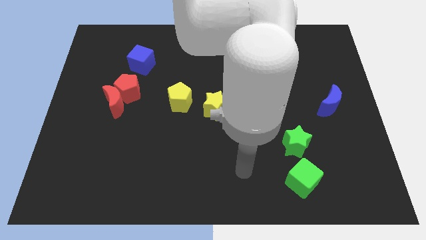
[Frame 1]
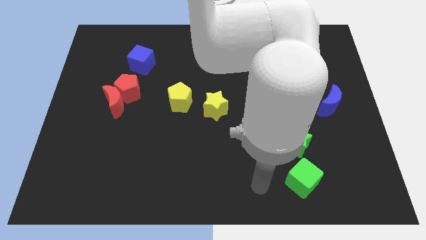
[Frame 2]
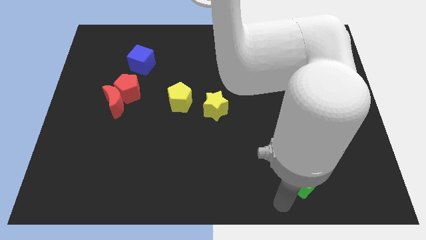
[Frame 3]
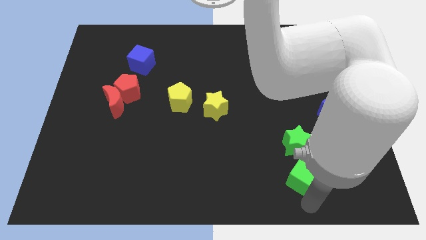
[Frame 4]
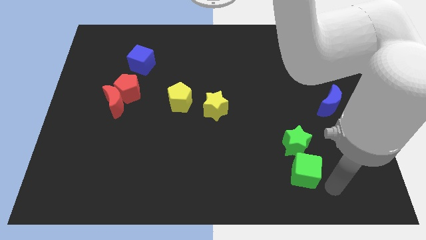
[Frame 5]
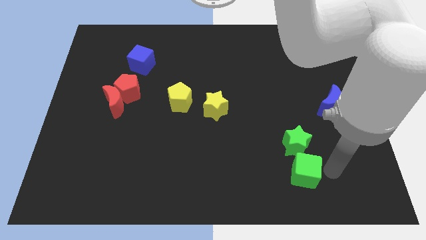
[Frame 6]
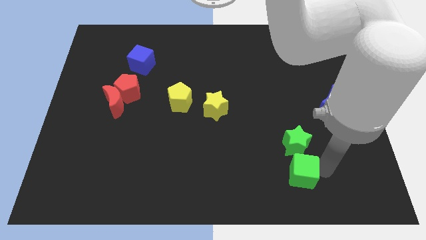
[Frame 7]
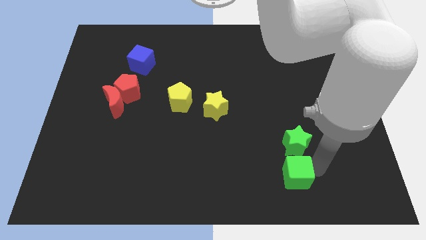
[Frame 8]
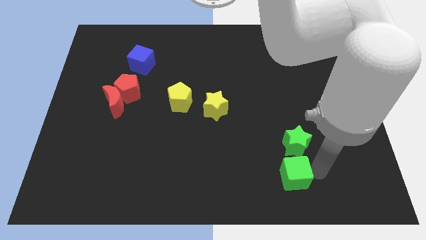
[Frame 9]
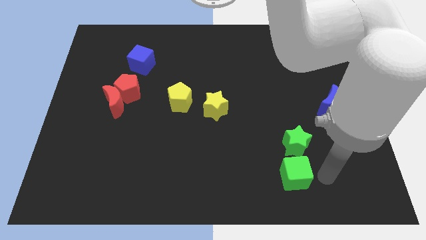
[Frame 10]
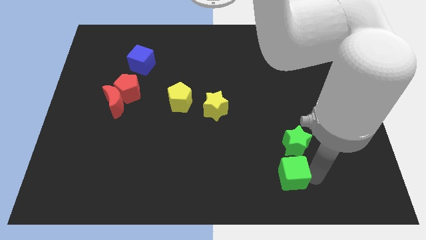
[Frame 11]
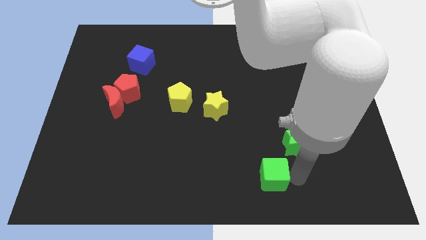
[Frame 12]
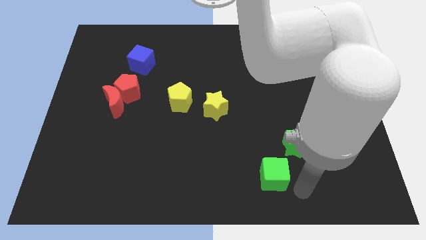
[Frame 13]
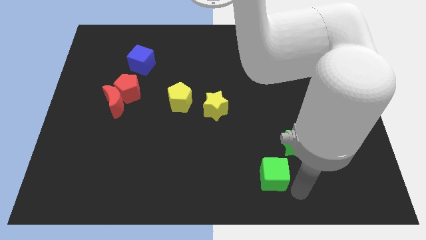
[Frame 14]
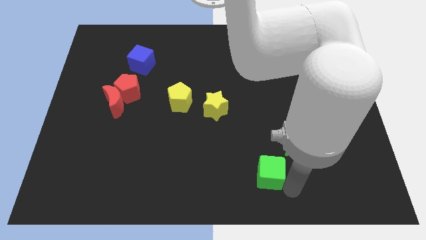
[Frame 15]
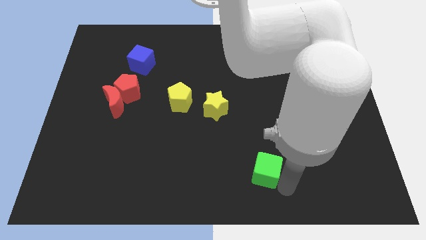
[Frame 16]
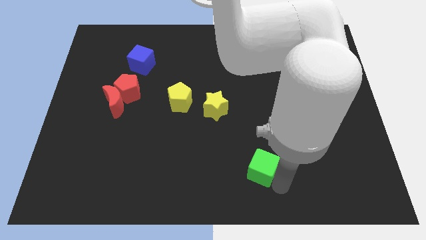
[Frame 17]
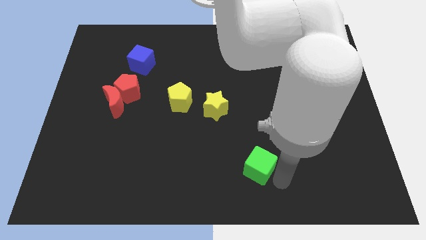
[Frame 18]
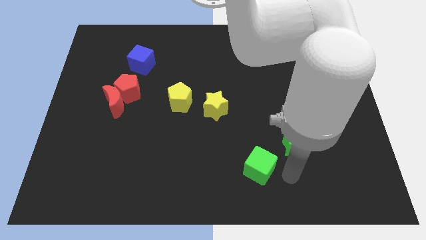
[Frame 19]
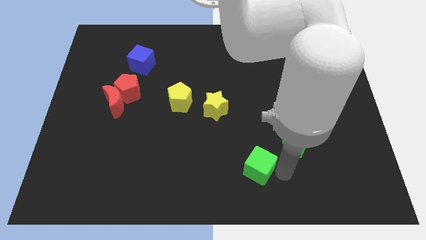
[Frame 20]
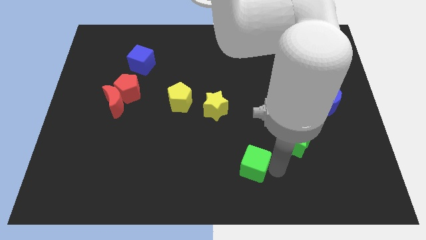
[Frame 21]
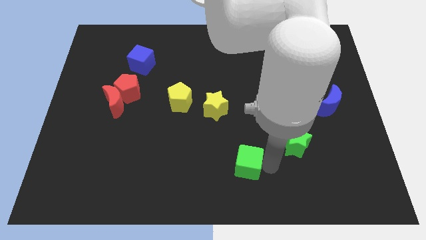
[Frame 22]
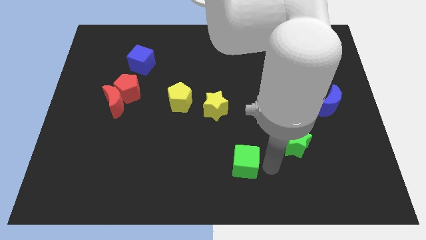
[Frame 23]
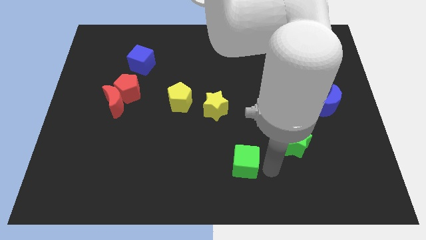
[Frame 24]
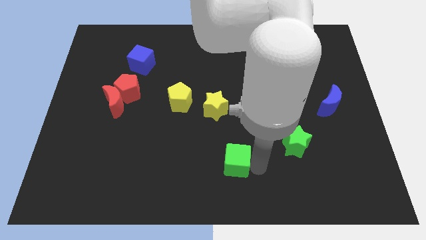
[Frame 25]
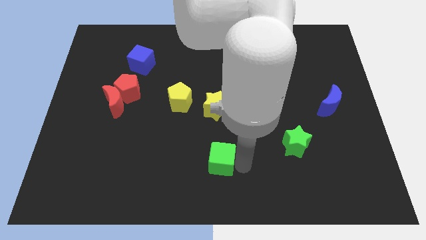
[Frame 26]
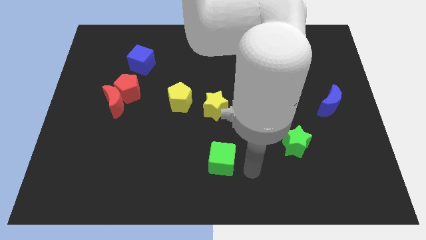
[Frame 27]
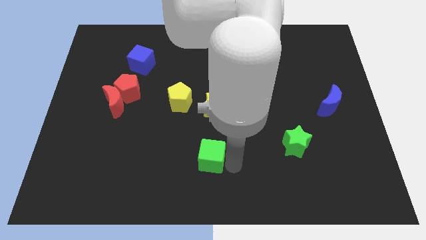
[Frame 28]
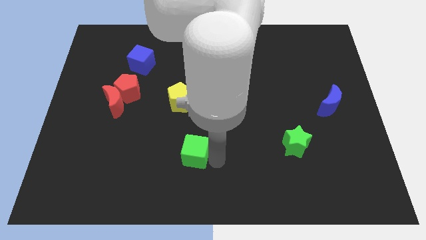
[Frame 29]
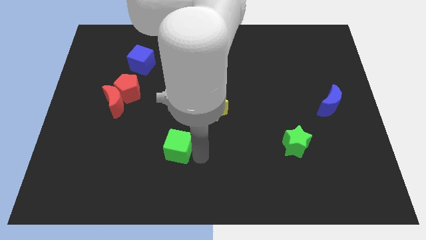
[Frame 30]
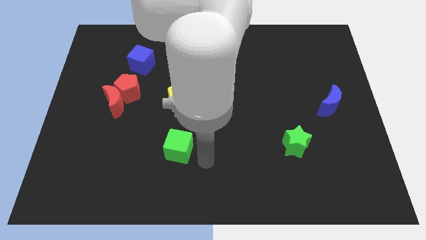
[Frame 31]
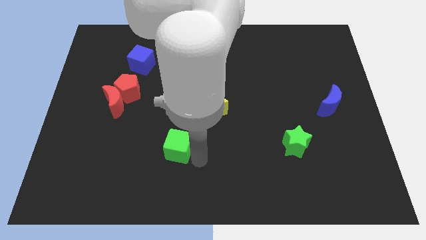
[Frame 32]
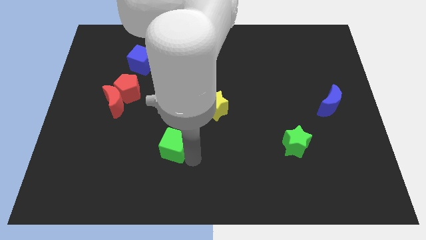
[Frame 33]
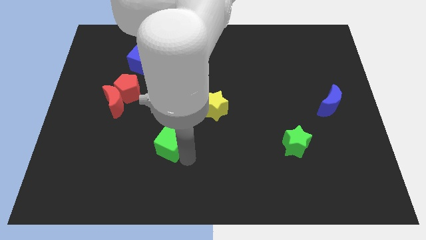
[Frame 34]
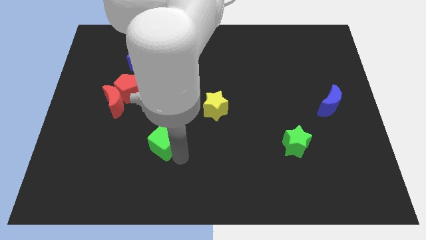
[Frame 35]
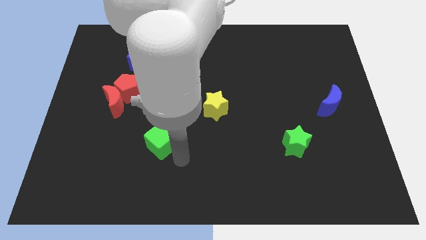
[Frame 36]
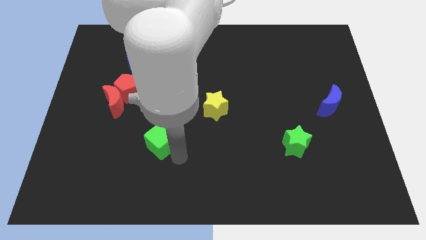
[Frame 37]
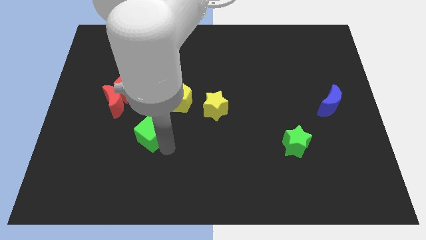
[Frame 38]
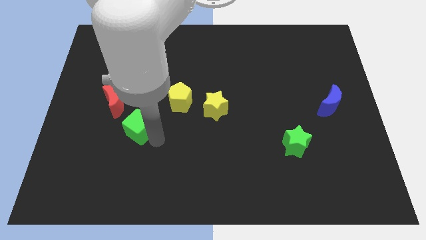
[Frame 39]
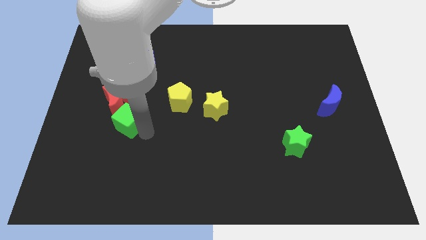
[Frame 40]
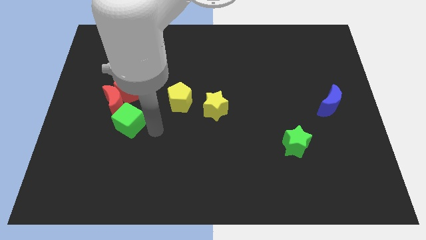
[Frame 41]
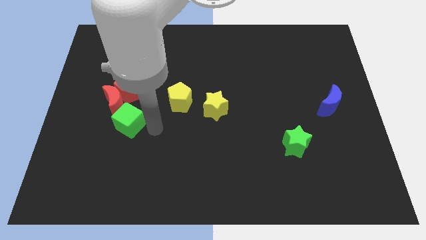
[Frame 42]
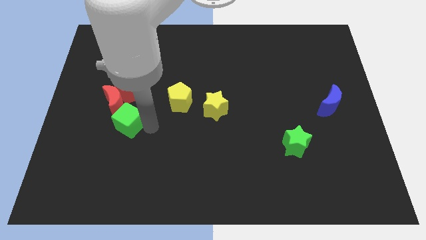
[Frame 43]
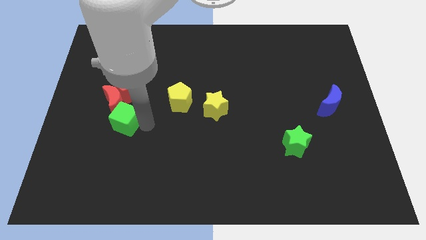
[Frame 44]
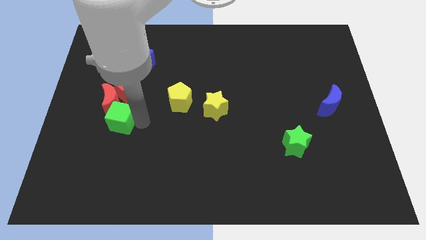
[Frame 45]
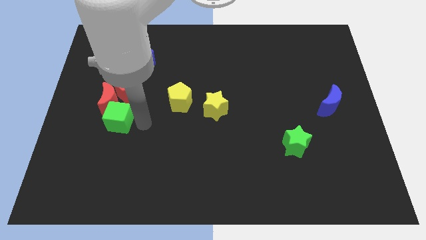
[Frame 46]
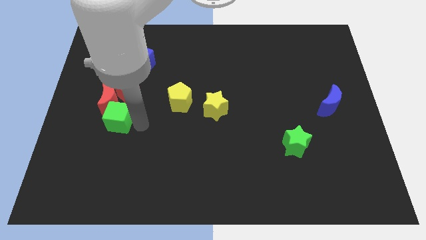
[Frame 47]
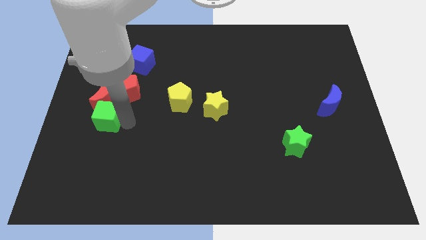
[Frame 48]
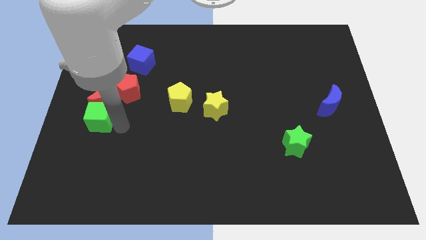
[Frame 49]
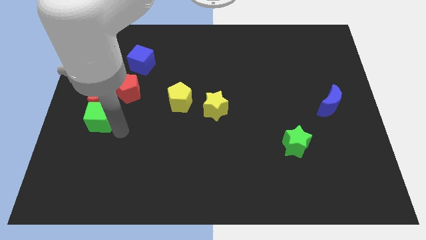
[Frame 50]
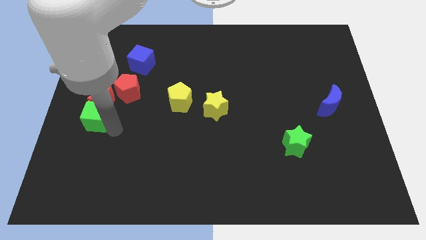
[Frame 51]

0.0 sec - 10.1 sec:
push the green cube to the left side of the board
